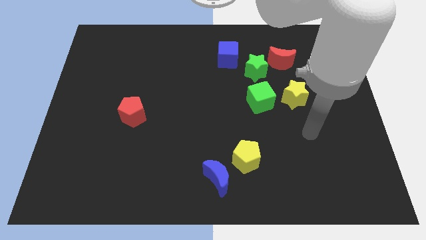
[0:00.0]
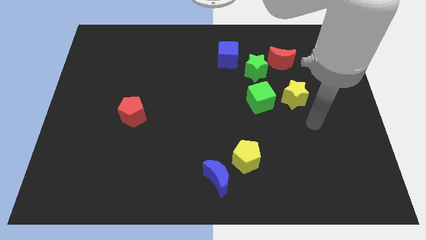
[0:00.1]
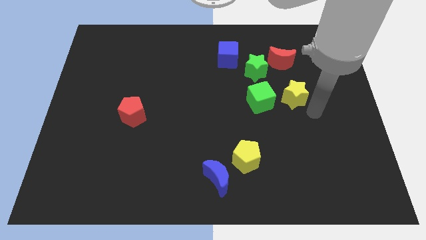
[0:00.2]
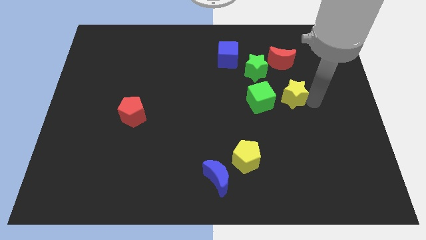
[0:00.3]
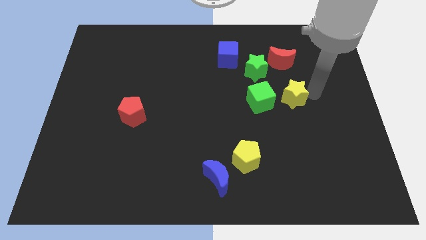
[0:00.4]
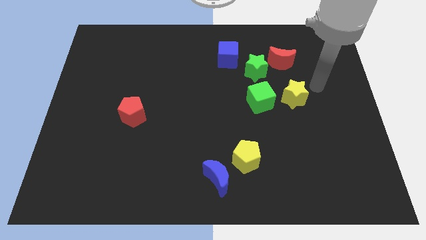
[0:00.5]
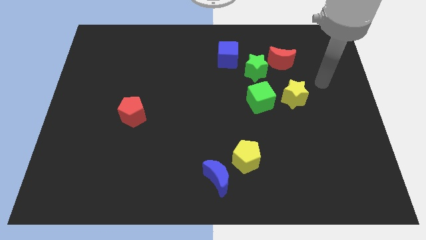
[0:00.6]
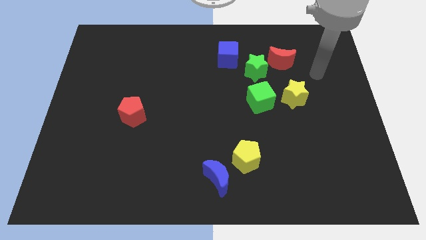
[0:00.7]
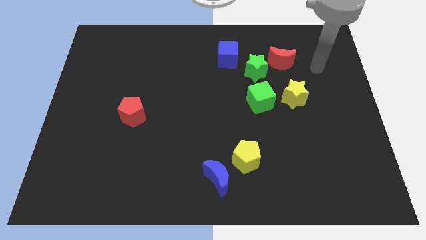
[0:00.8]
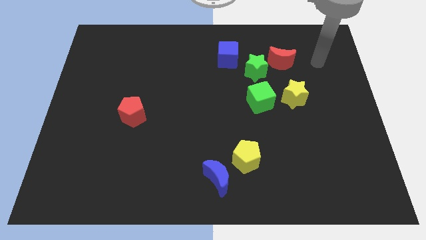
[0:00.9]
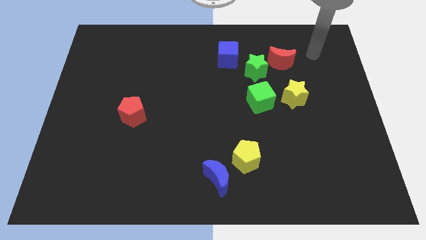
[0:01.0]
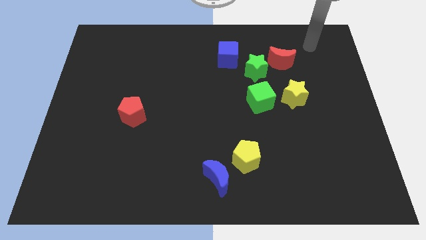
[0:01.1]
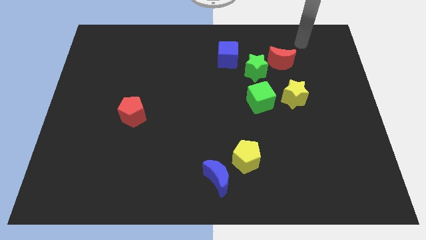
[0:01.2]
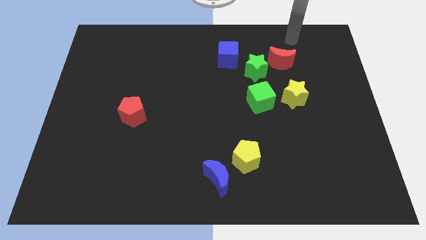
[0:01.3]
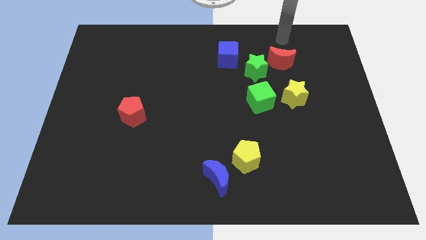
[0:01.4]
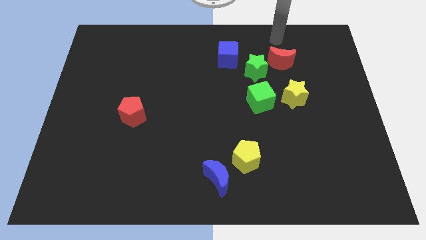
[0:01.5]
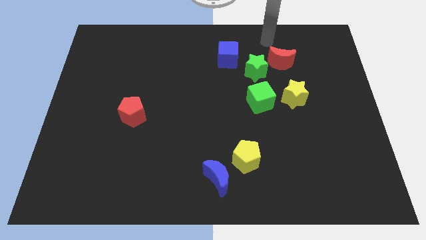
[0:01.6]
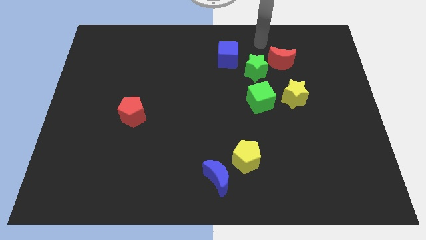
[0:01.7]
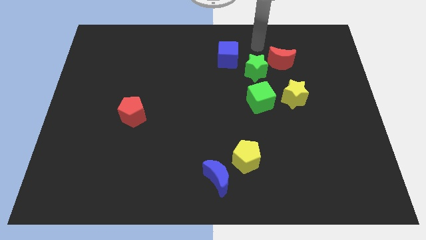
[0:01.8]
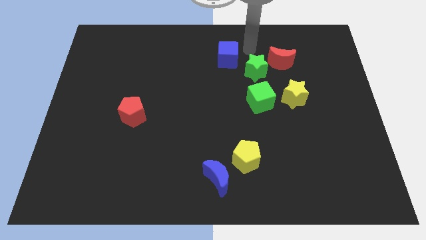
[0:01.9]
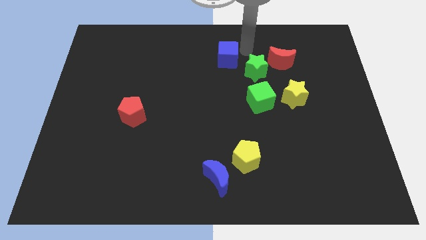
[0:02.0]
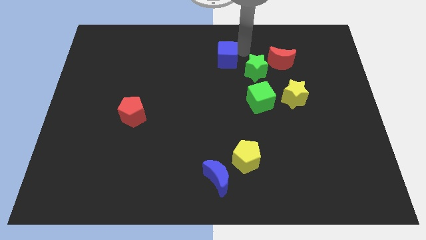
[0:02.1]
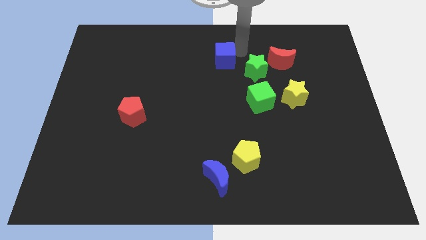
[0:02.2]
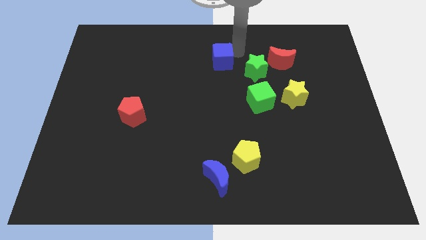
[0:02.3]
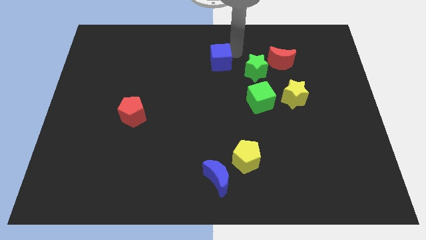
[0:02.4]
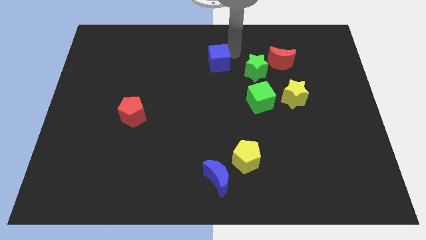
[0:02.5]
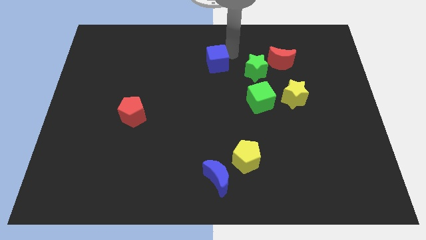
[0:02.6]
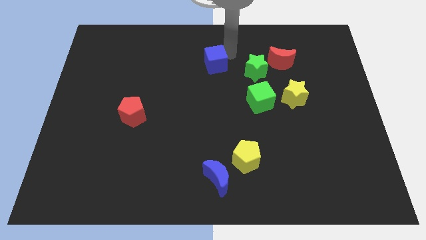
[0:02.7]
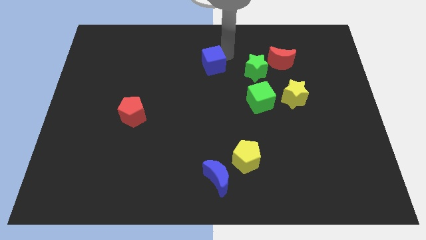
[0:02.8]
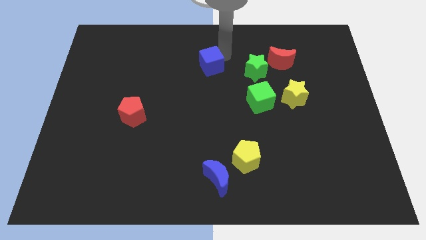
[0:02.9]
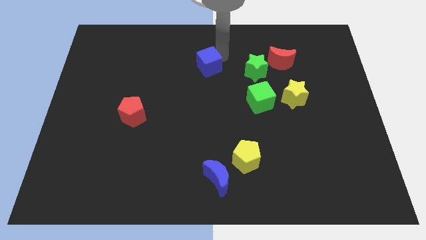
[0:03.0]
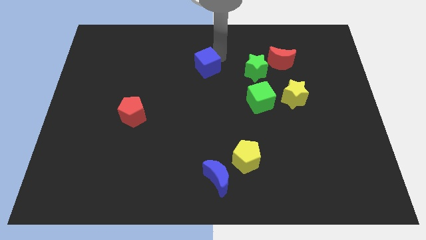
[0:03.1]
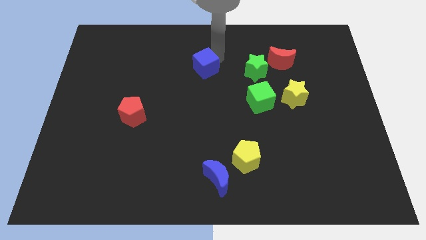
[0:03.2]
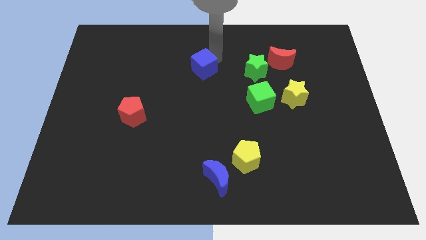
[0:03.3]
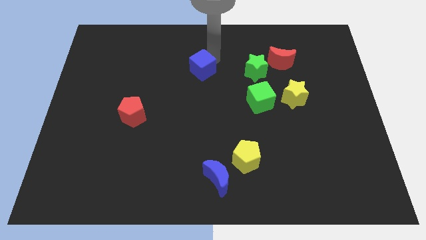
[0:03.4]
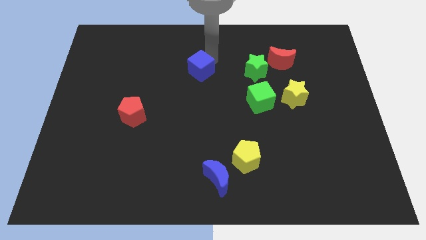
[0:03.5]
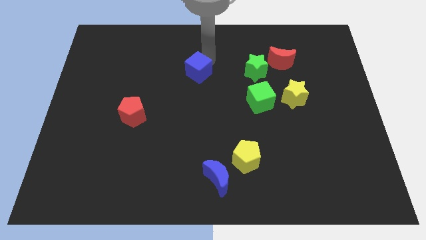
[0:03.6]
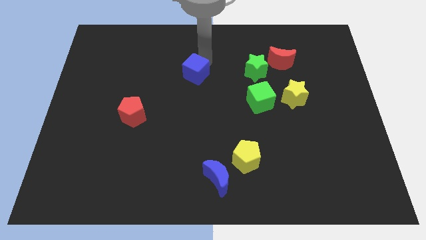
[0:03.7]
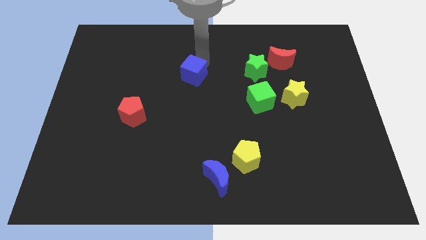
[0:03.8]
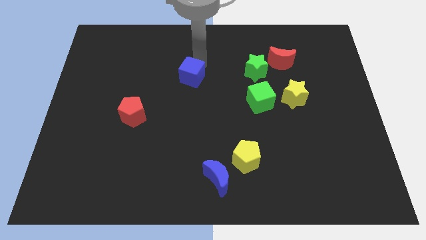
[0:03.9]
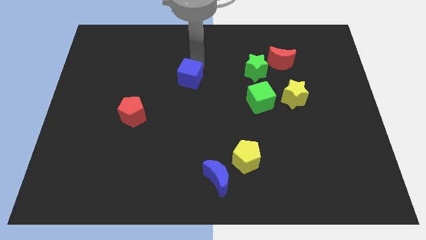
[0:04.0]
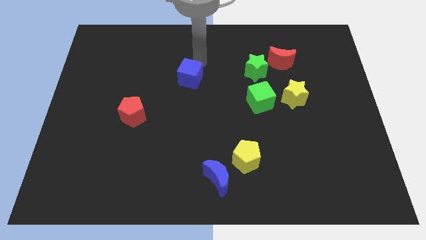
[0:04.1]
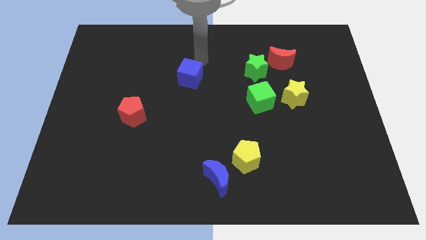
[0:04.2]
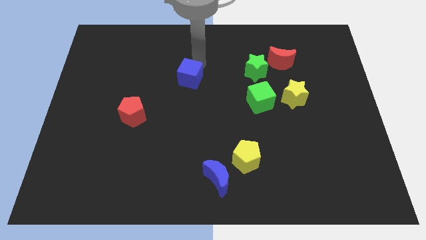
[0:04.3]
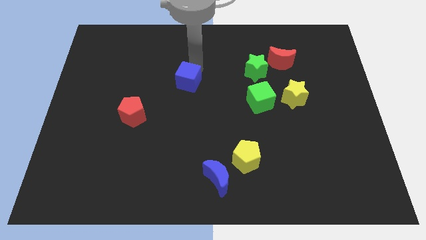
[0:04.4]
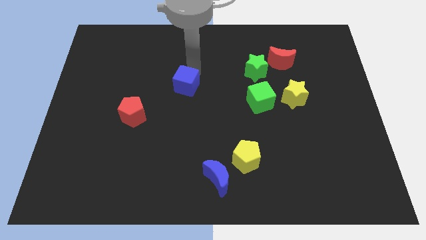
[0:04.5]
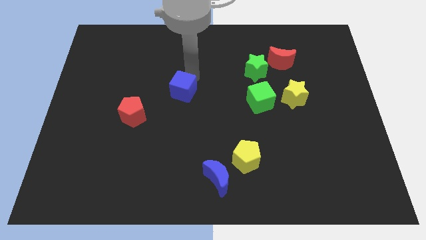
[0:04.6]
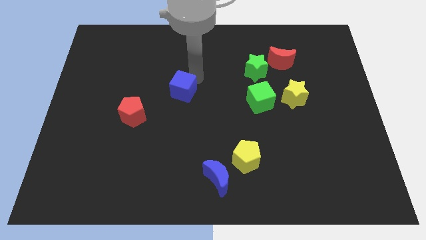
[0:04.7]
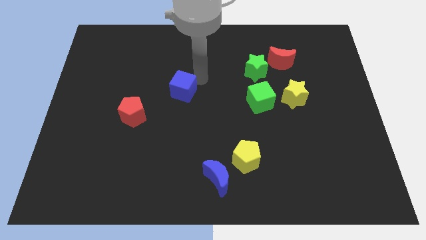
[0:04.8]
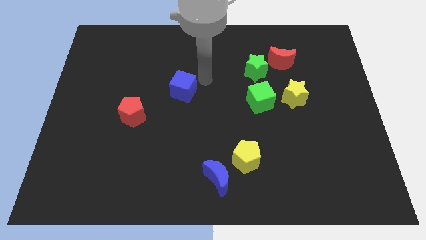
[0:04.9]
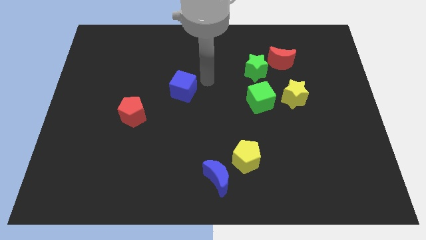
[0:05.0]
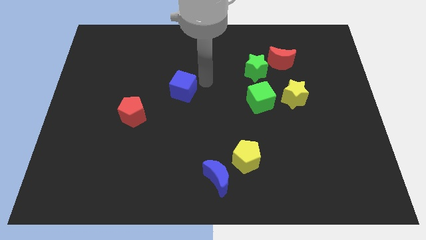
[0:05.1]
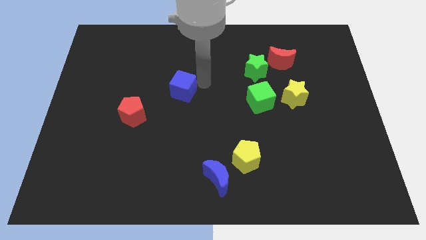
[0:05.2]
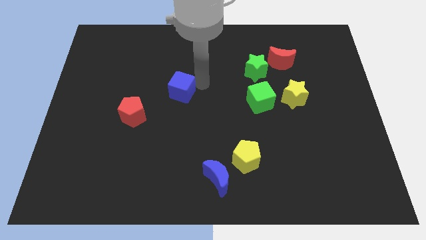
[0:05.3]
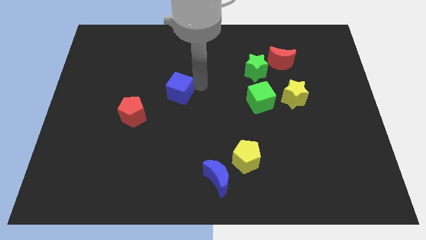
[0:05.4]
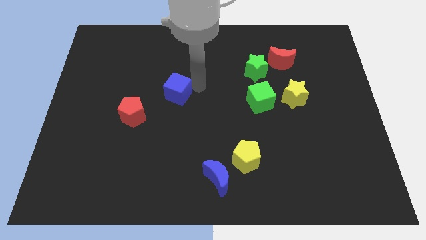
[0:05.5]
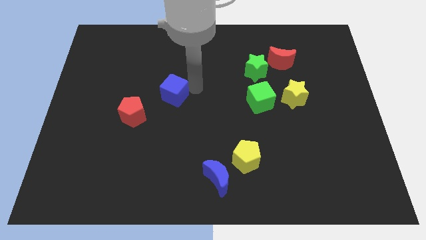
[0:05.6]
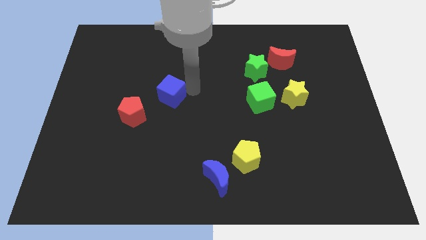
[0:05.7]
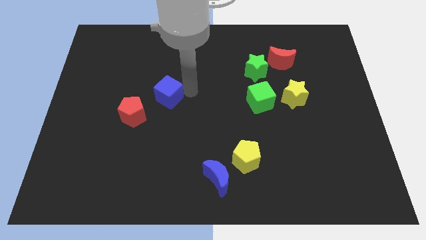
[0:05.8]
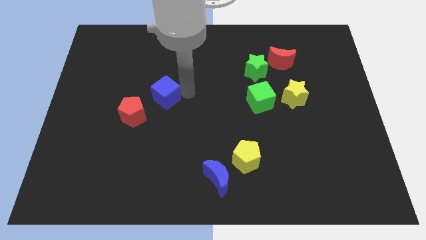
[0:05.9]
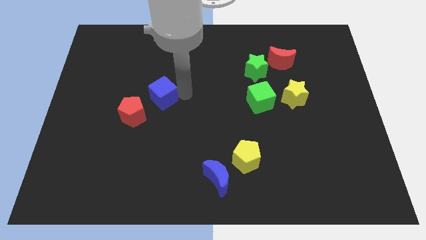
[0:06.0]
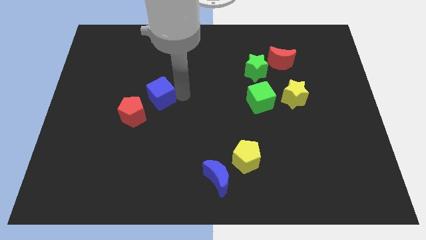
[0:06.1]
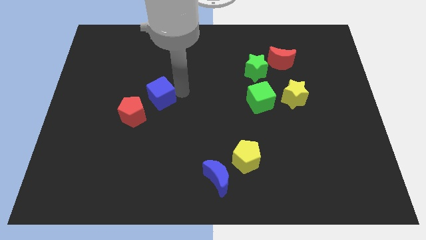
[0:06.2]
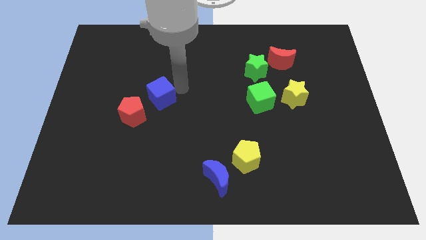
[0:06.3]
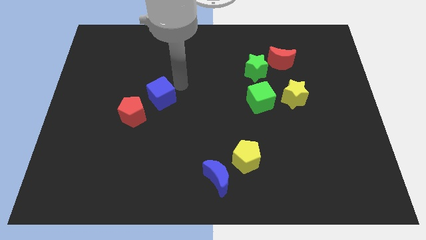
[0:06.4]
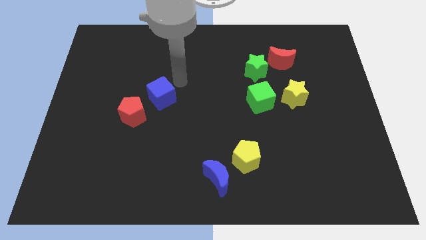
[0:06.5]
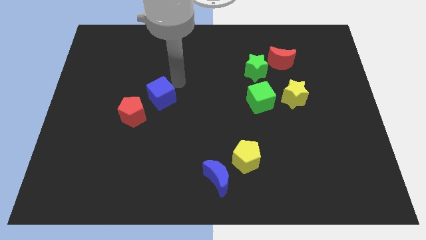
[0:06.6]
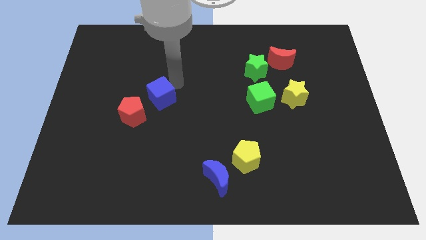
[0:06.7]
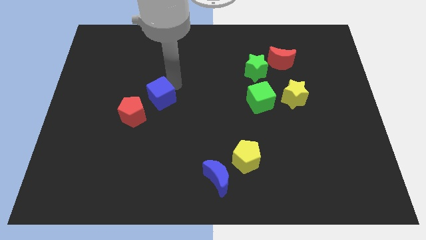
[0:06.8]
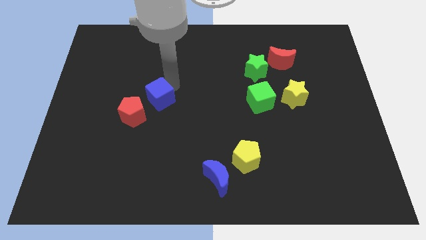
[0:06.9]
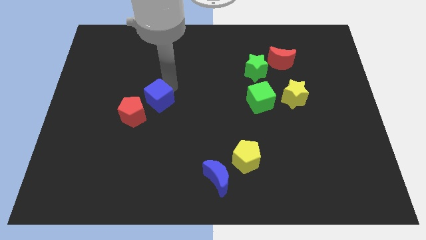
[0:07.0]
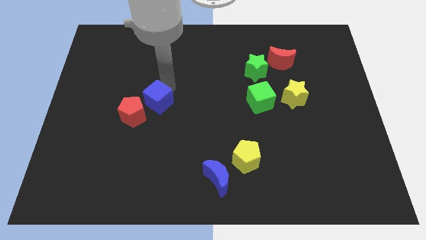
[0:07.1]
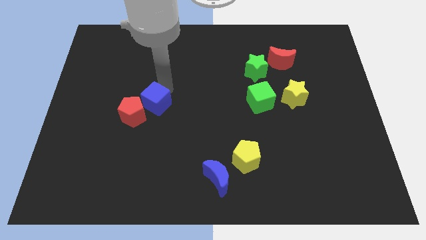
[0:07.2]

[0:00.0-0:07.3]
slide the blue cube towards the red pentagon
